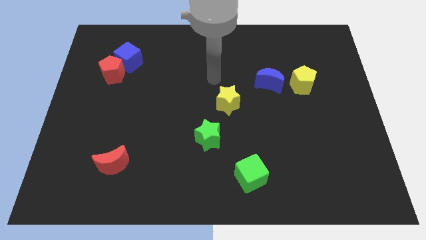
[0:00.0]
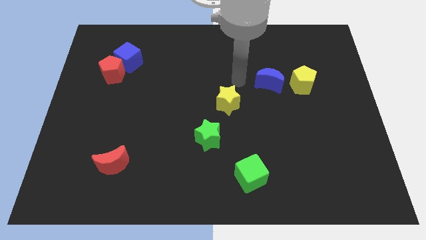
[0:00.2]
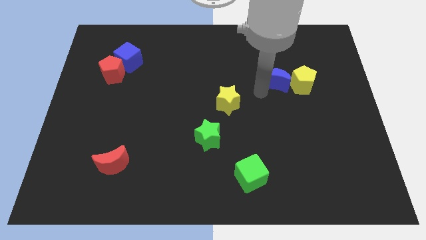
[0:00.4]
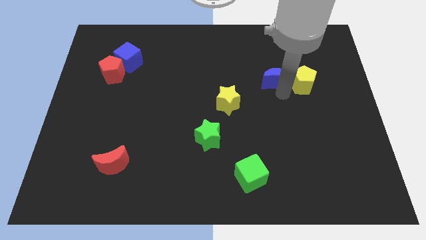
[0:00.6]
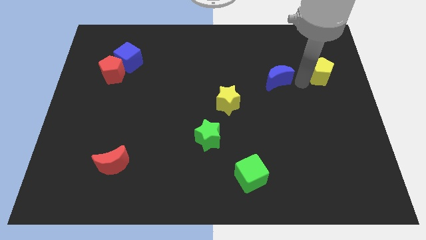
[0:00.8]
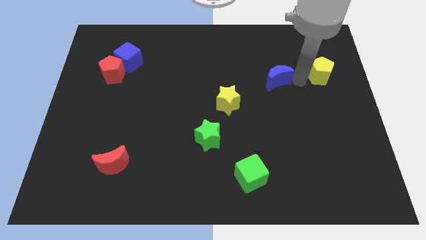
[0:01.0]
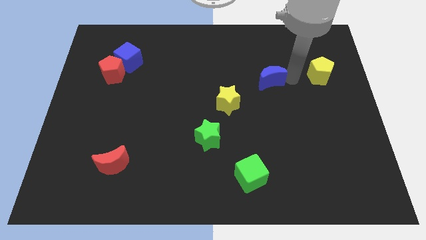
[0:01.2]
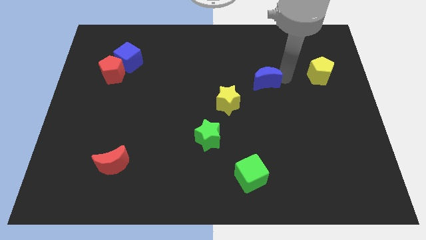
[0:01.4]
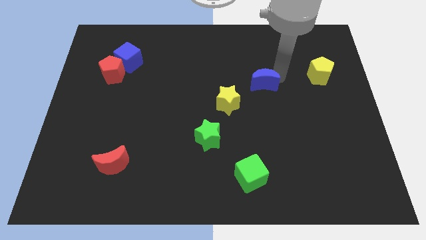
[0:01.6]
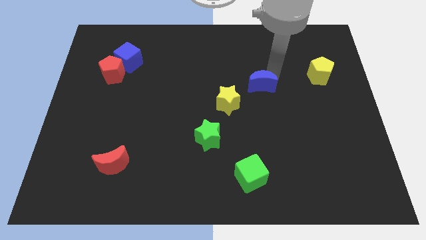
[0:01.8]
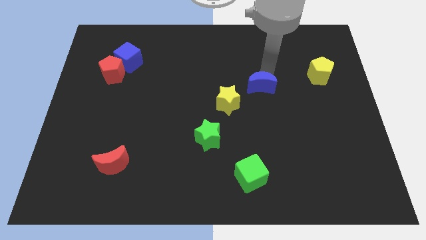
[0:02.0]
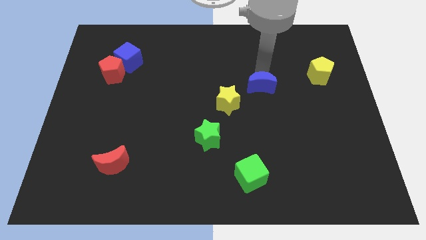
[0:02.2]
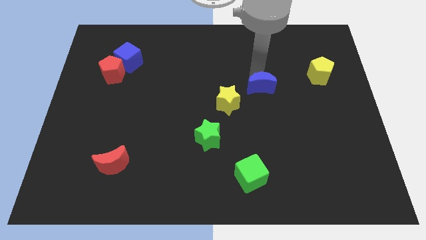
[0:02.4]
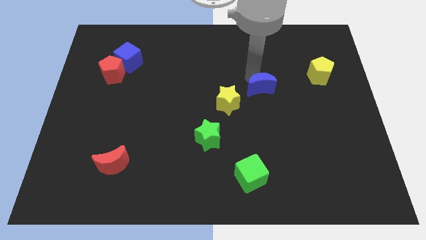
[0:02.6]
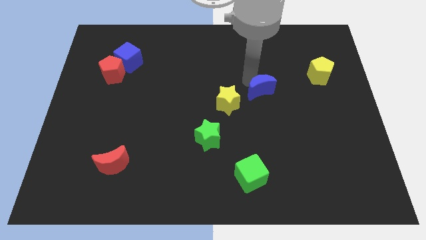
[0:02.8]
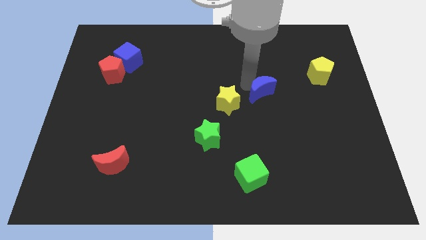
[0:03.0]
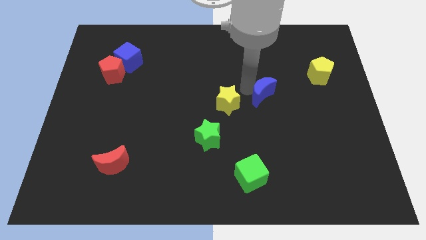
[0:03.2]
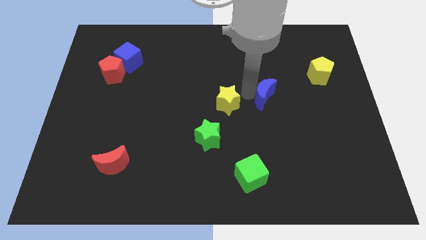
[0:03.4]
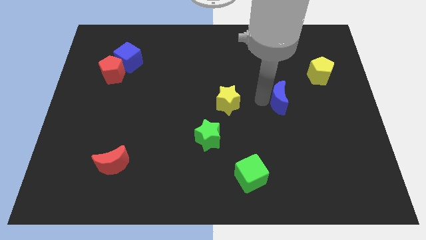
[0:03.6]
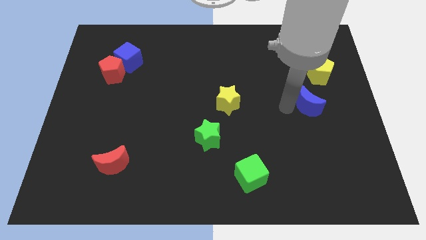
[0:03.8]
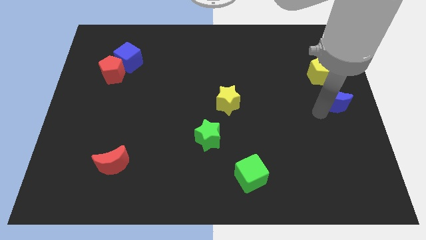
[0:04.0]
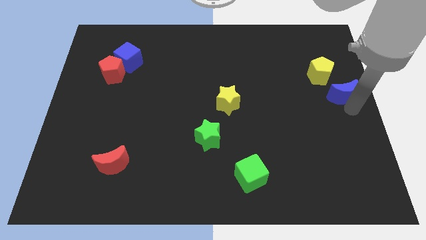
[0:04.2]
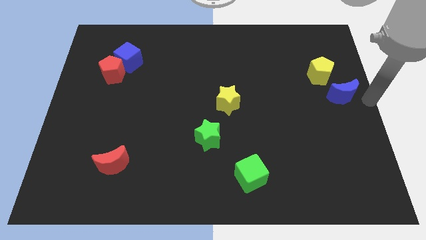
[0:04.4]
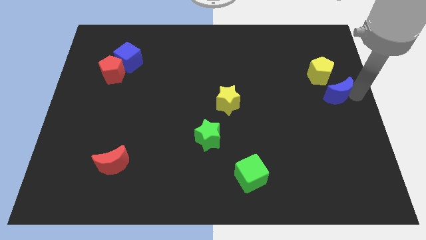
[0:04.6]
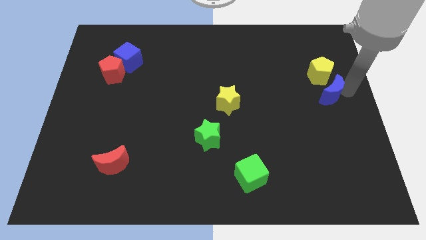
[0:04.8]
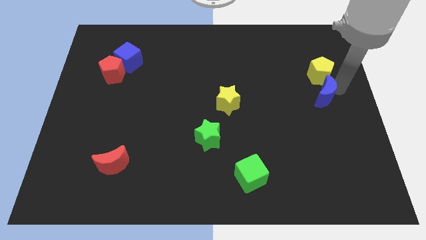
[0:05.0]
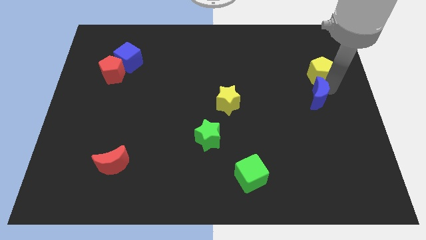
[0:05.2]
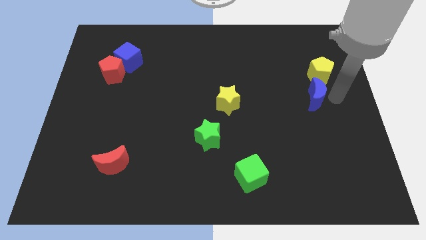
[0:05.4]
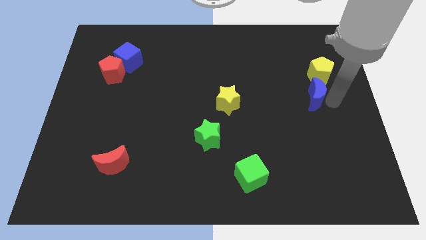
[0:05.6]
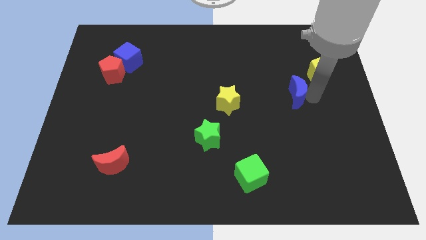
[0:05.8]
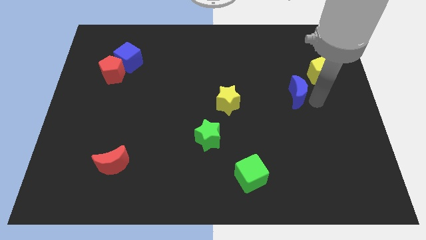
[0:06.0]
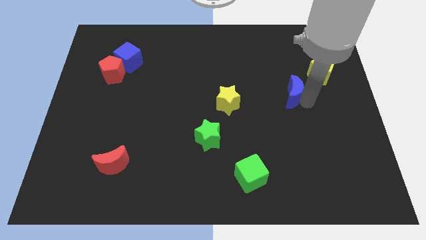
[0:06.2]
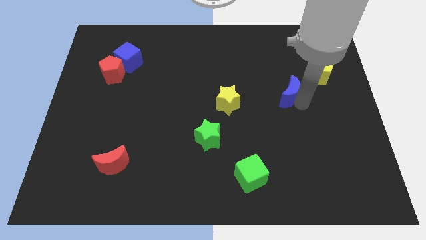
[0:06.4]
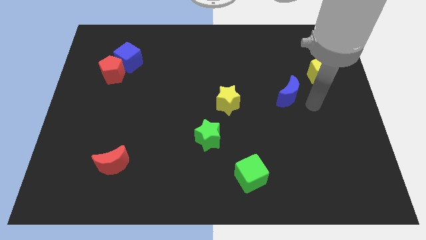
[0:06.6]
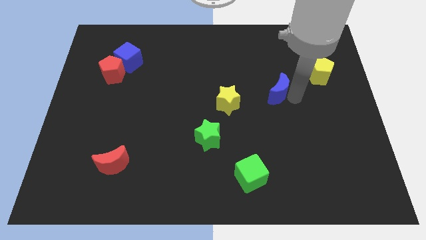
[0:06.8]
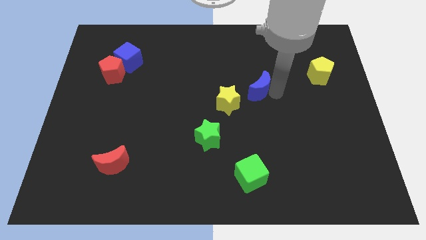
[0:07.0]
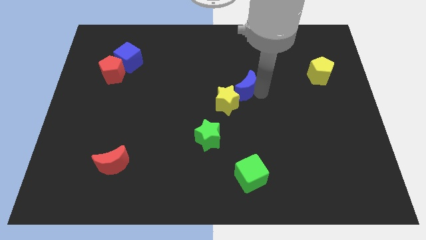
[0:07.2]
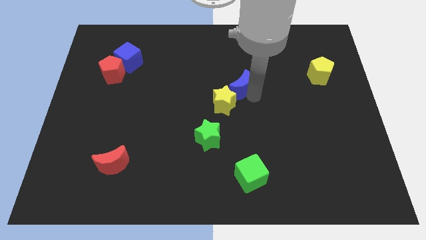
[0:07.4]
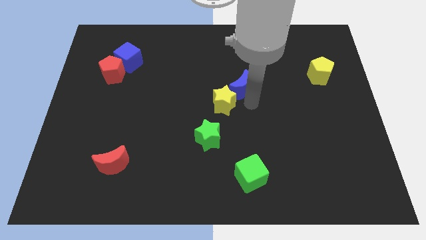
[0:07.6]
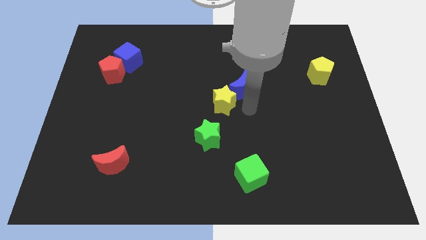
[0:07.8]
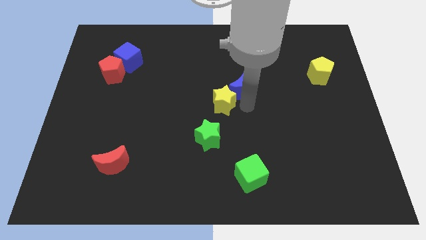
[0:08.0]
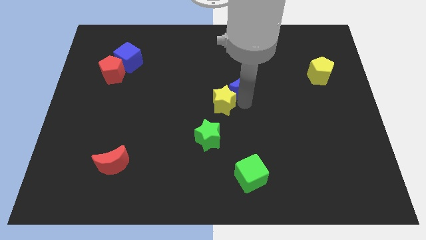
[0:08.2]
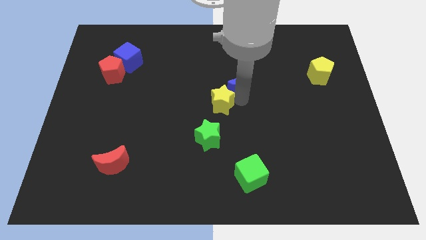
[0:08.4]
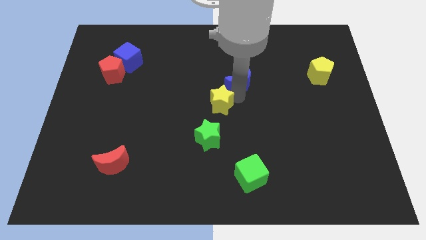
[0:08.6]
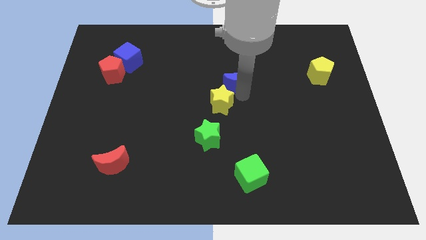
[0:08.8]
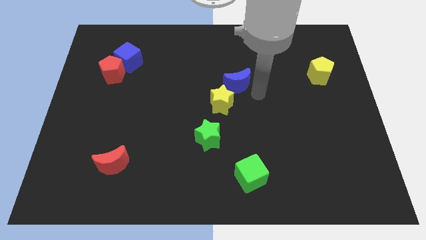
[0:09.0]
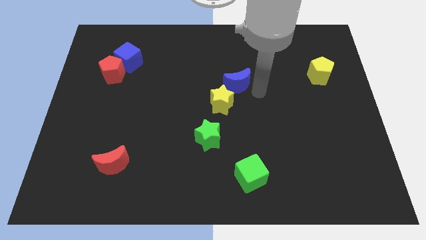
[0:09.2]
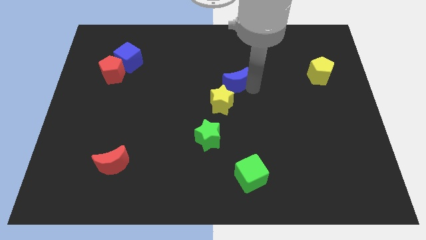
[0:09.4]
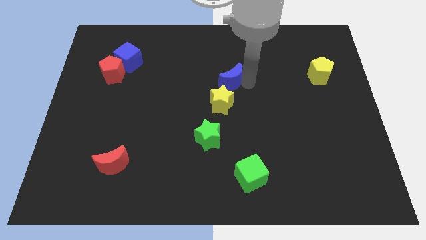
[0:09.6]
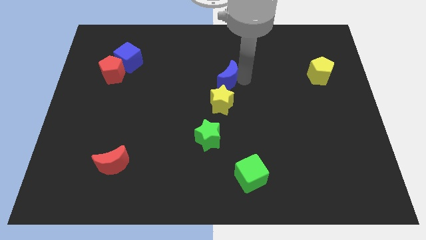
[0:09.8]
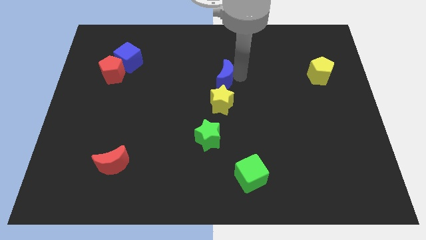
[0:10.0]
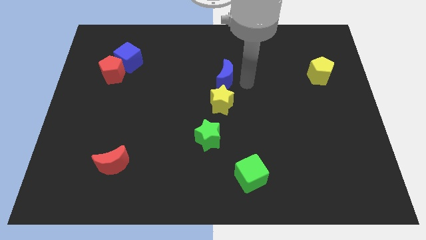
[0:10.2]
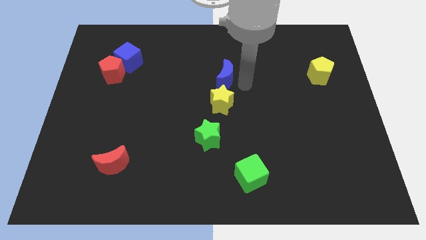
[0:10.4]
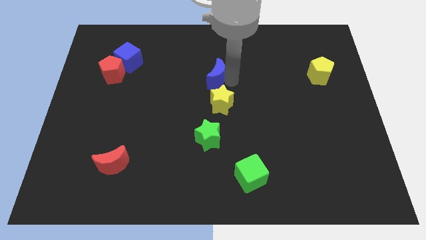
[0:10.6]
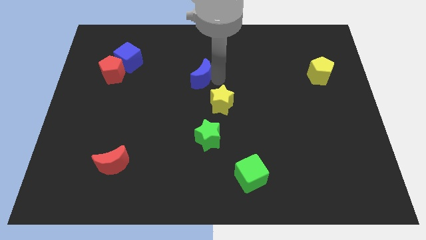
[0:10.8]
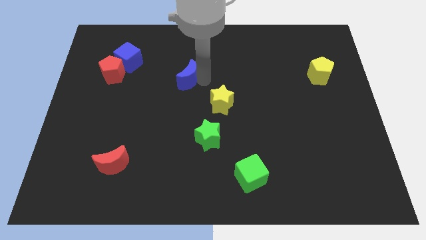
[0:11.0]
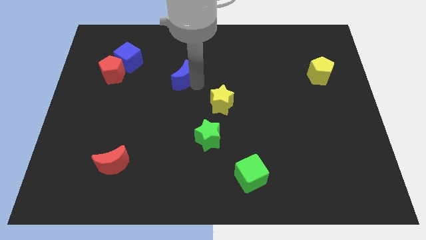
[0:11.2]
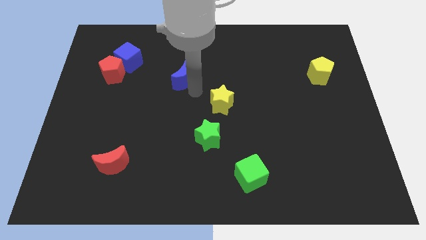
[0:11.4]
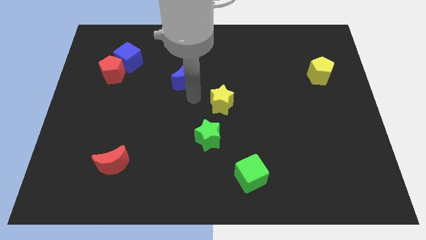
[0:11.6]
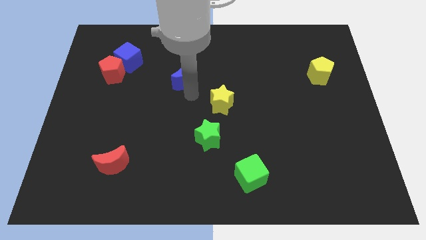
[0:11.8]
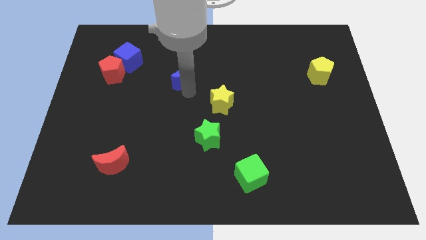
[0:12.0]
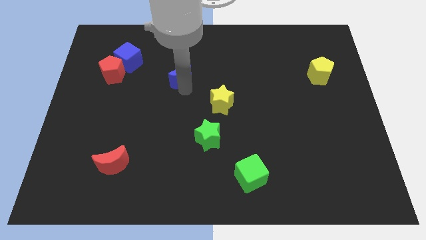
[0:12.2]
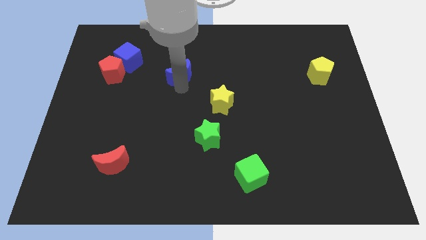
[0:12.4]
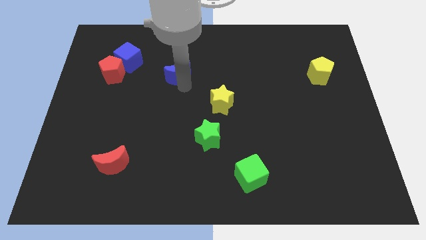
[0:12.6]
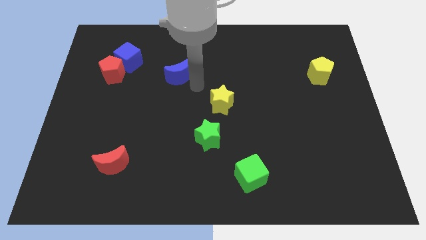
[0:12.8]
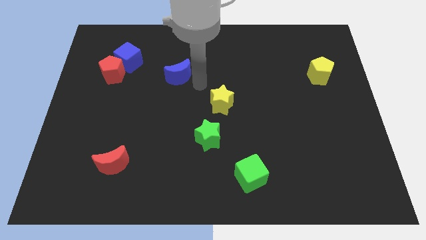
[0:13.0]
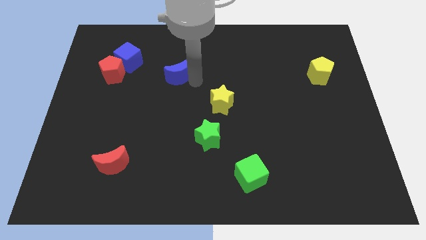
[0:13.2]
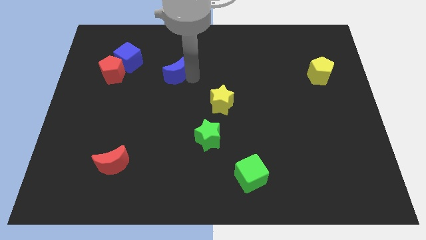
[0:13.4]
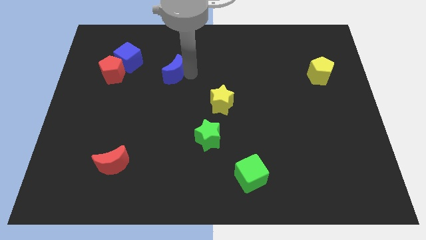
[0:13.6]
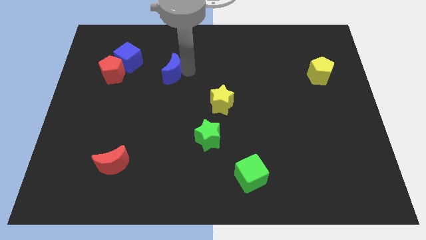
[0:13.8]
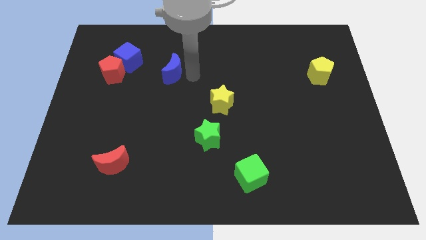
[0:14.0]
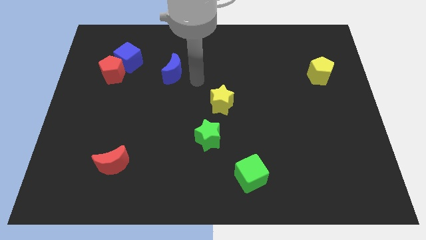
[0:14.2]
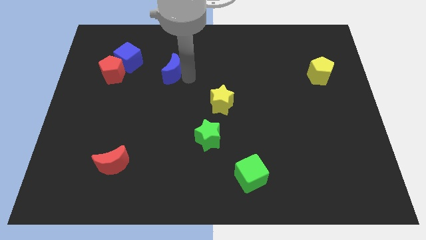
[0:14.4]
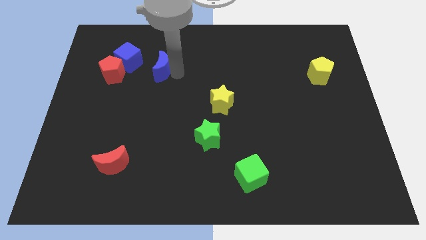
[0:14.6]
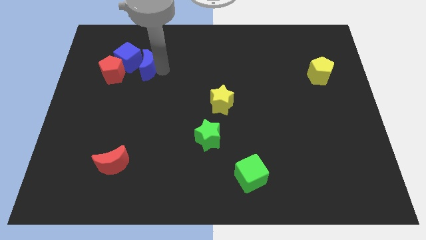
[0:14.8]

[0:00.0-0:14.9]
move the blue moon close to the blue cube

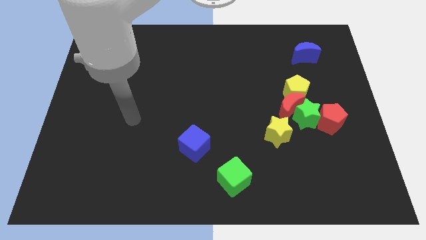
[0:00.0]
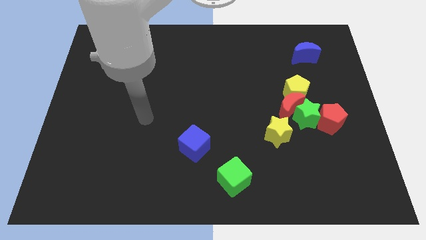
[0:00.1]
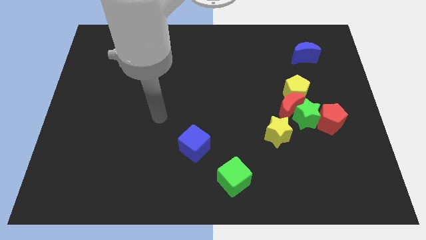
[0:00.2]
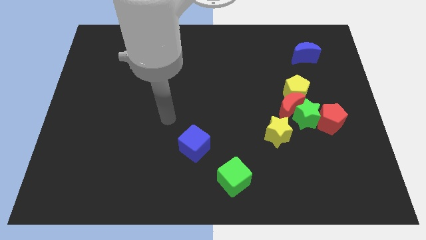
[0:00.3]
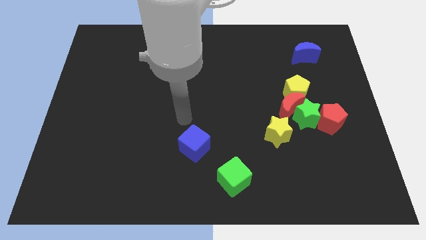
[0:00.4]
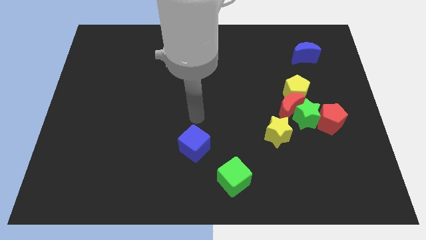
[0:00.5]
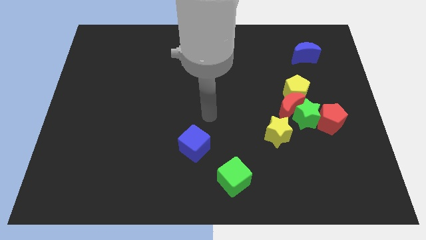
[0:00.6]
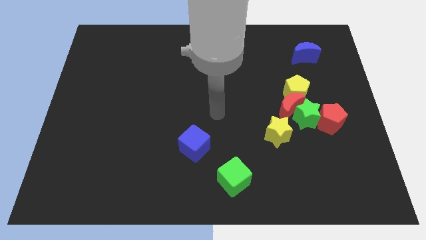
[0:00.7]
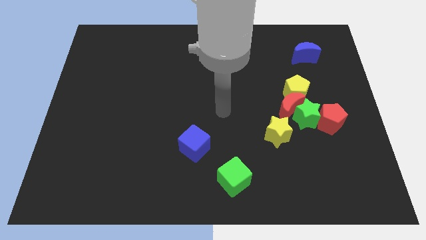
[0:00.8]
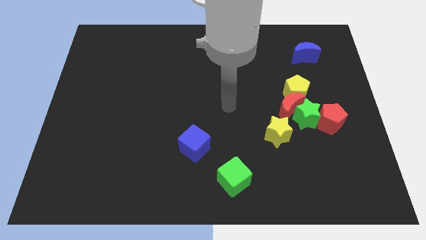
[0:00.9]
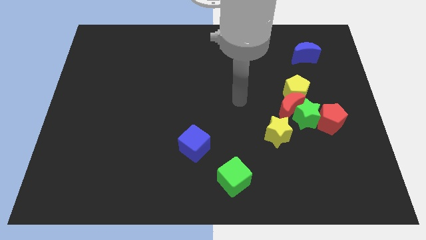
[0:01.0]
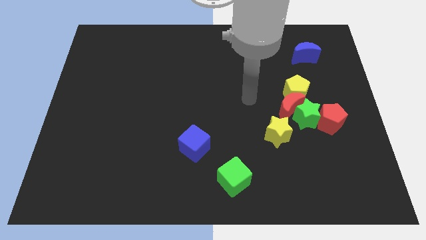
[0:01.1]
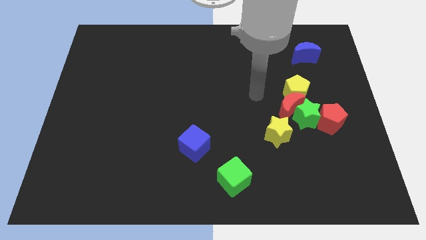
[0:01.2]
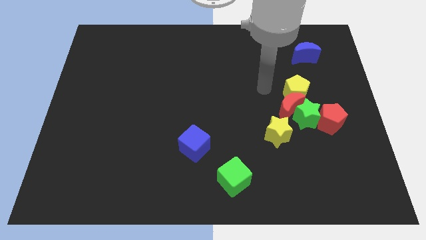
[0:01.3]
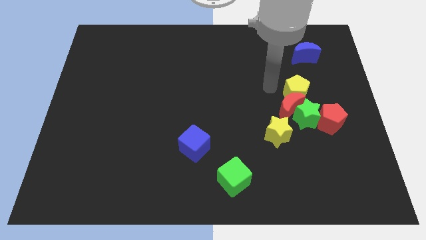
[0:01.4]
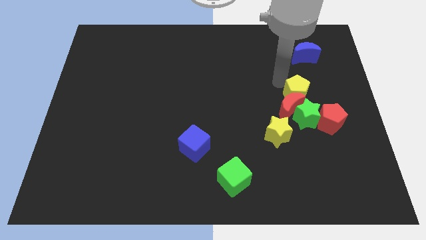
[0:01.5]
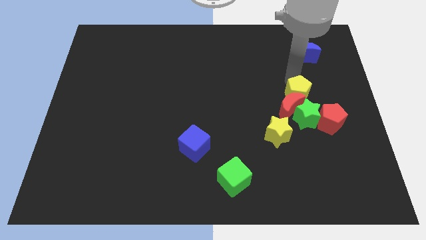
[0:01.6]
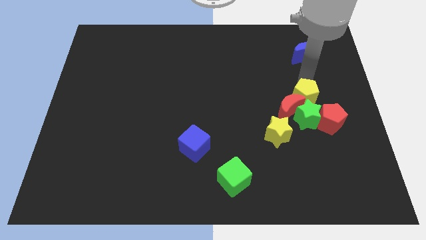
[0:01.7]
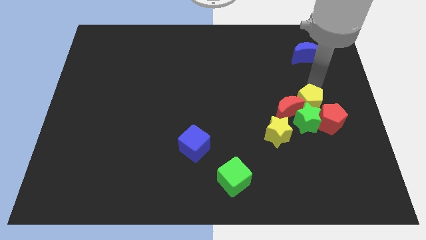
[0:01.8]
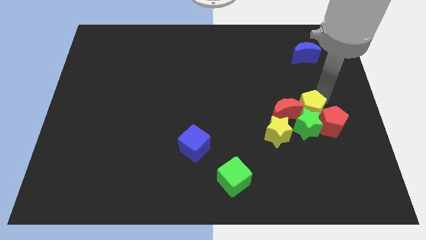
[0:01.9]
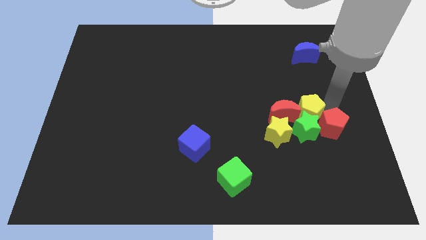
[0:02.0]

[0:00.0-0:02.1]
push the green star towards the yellow star
